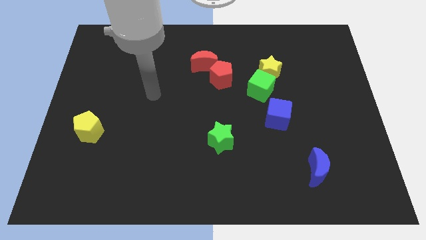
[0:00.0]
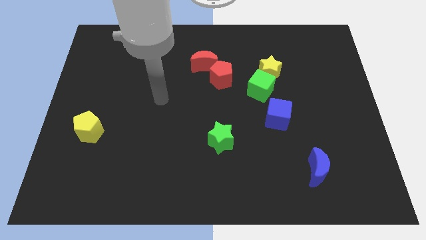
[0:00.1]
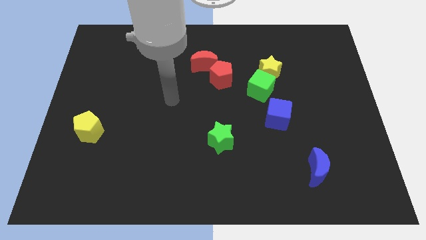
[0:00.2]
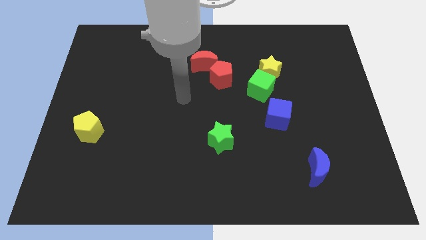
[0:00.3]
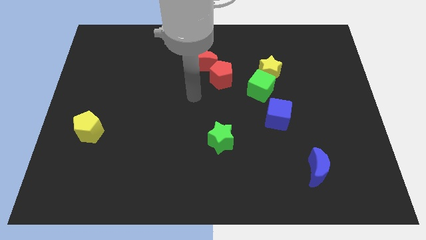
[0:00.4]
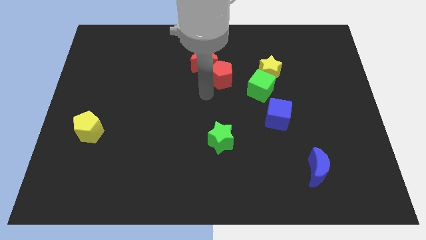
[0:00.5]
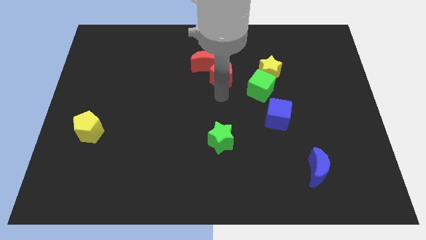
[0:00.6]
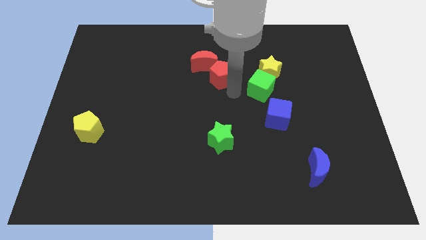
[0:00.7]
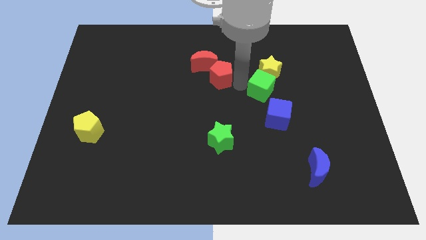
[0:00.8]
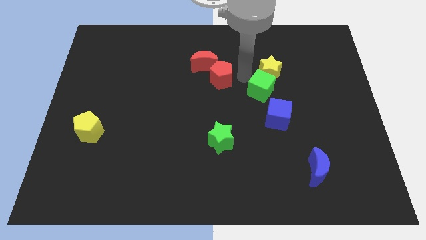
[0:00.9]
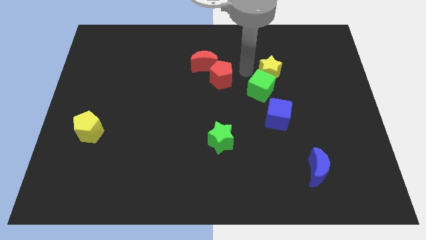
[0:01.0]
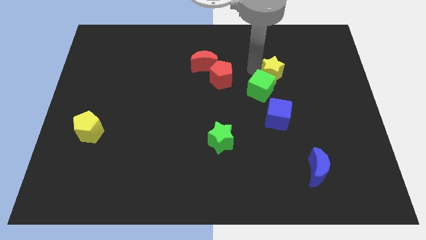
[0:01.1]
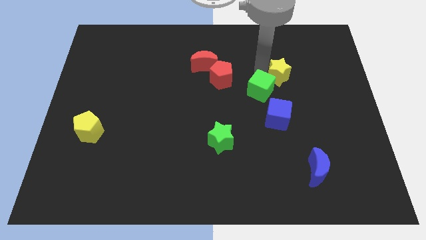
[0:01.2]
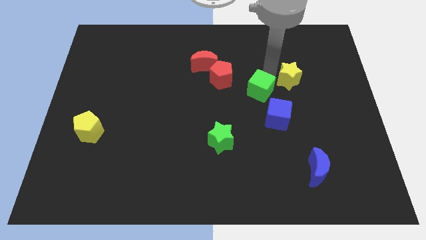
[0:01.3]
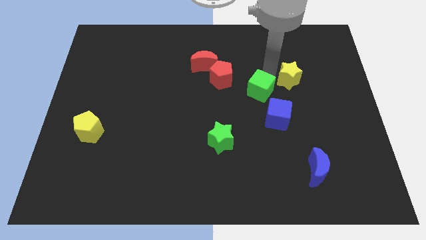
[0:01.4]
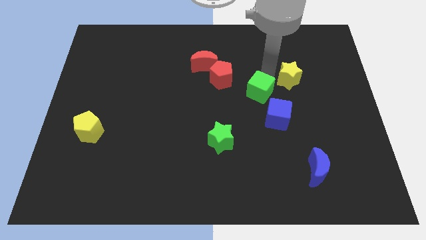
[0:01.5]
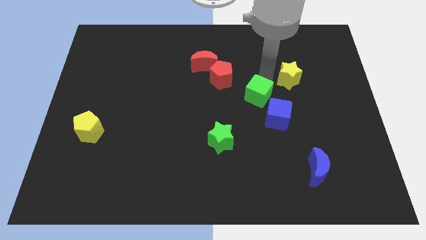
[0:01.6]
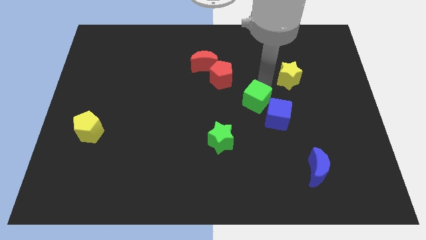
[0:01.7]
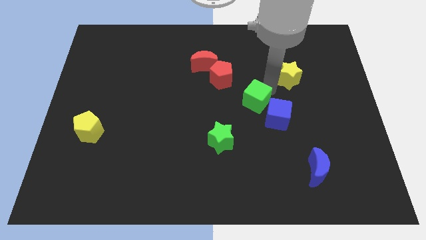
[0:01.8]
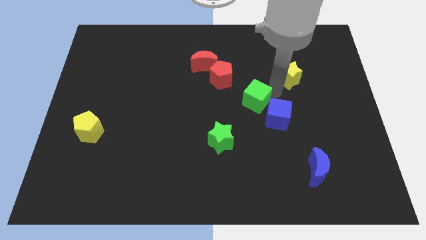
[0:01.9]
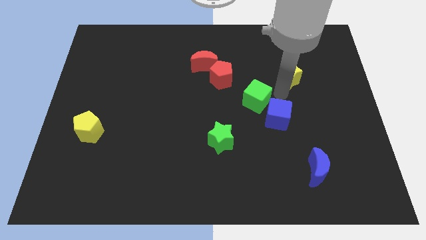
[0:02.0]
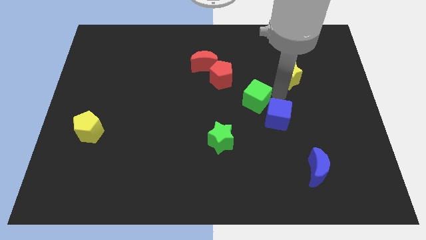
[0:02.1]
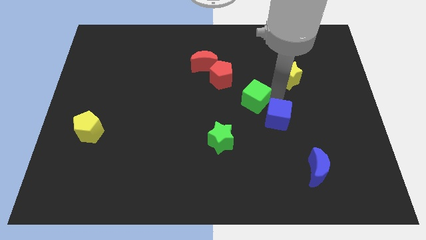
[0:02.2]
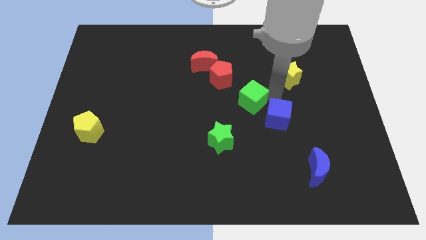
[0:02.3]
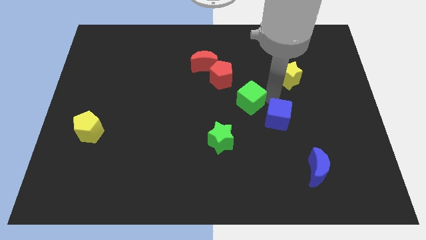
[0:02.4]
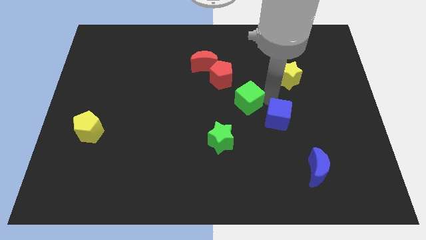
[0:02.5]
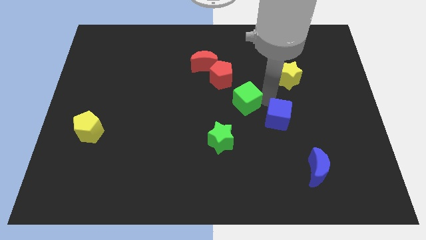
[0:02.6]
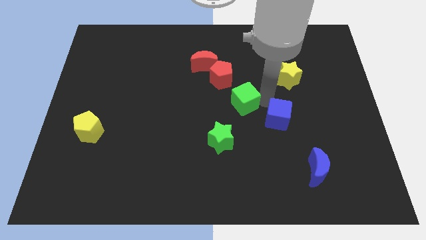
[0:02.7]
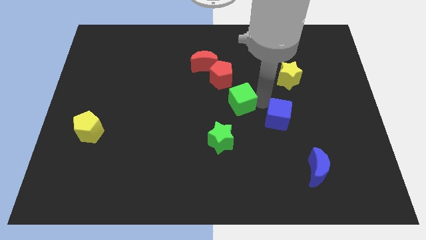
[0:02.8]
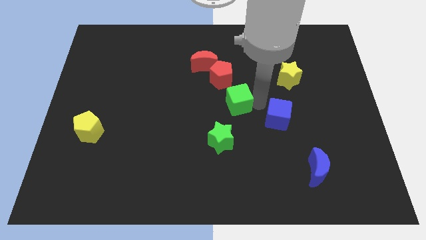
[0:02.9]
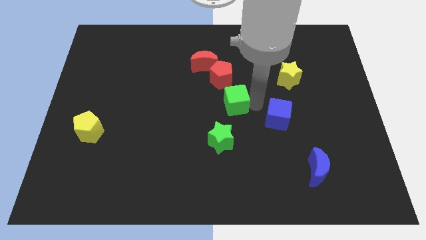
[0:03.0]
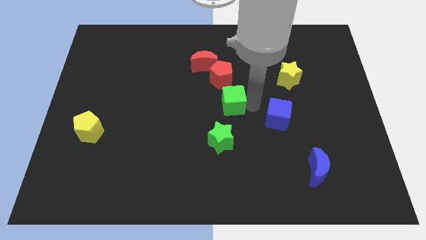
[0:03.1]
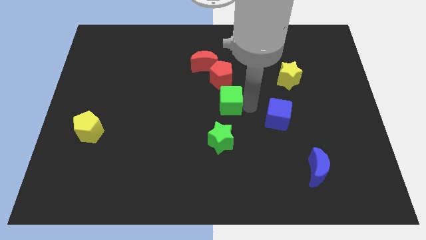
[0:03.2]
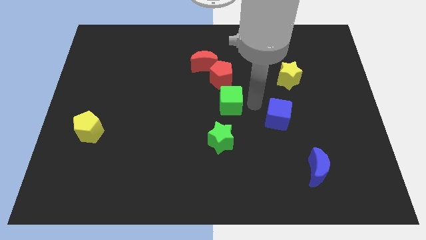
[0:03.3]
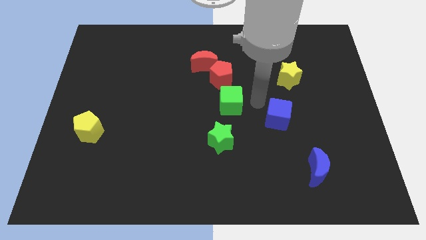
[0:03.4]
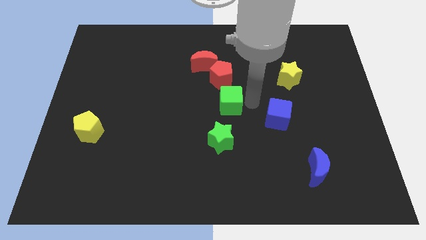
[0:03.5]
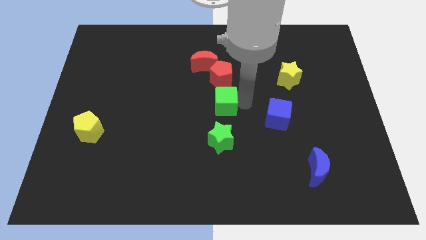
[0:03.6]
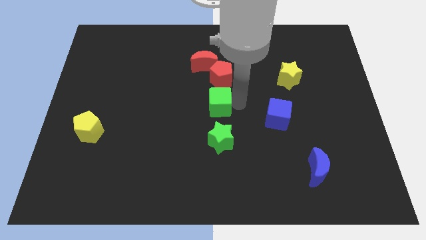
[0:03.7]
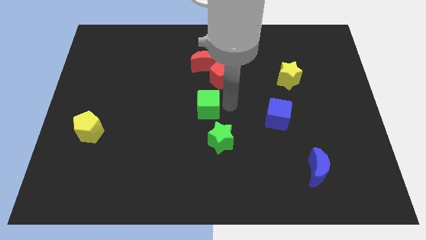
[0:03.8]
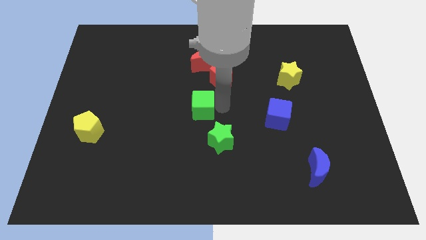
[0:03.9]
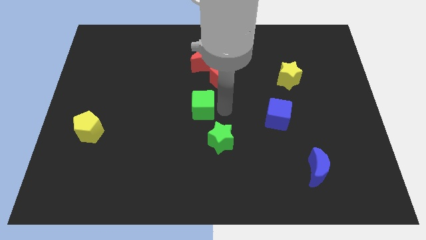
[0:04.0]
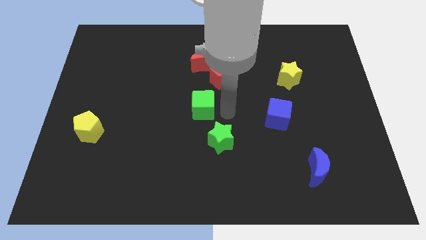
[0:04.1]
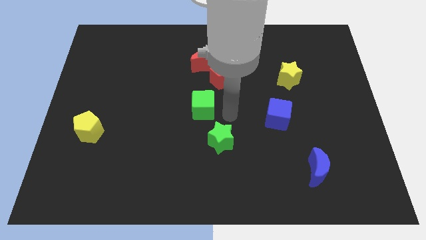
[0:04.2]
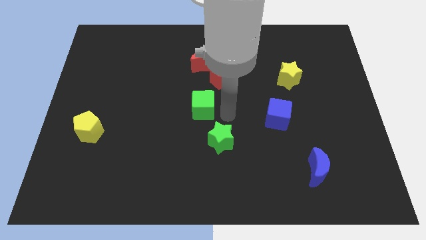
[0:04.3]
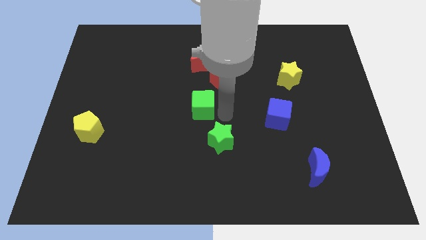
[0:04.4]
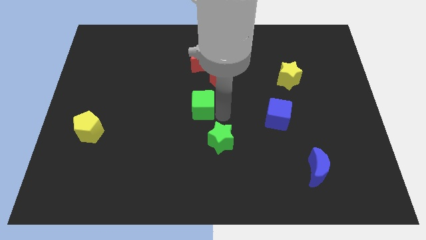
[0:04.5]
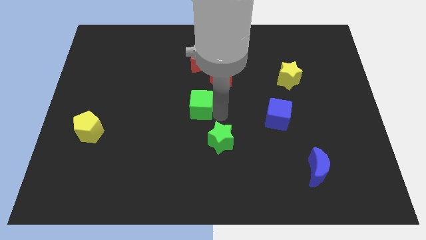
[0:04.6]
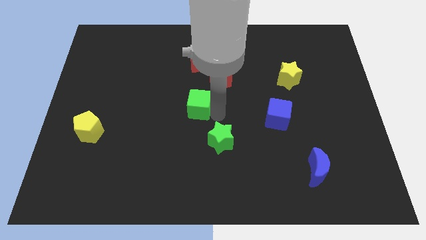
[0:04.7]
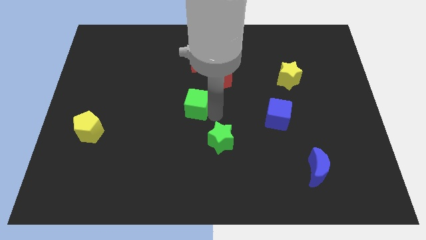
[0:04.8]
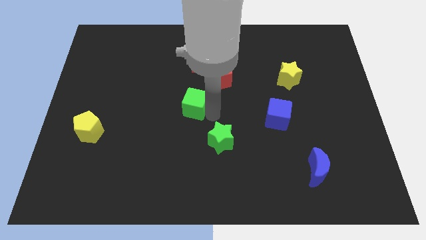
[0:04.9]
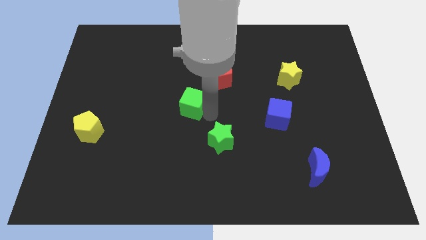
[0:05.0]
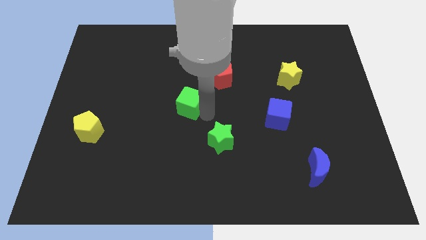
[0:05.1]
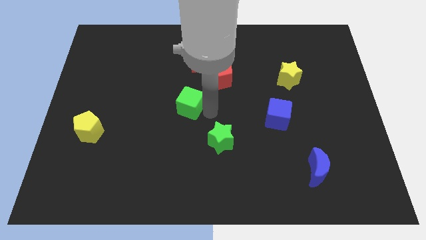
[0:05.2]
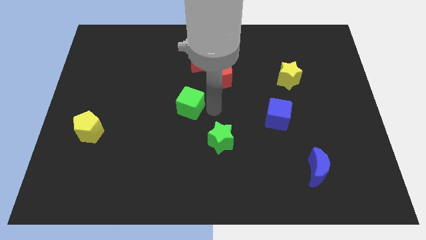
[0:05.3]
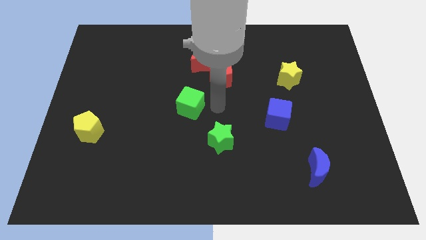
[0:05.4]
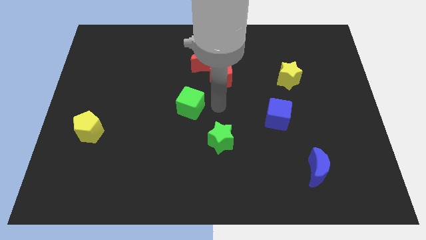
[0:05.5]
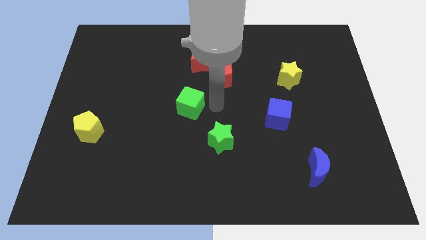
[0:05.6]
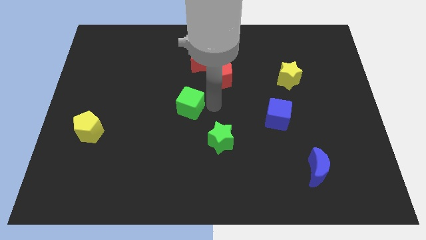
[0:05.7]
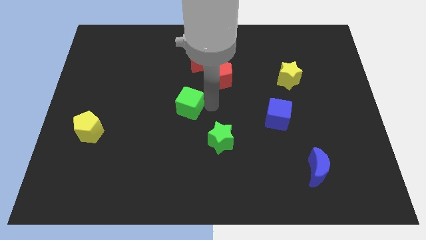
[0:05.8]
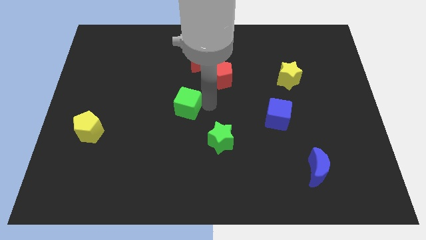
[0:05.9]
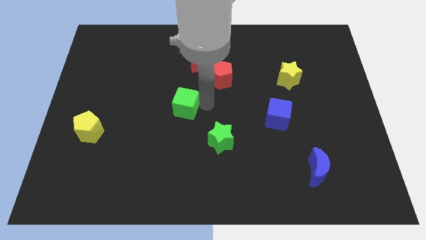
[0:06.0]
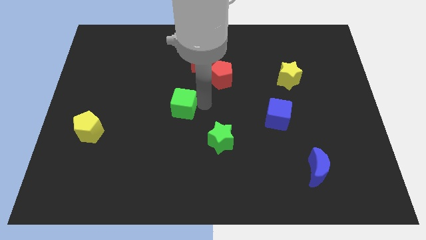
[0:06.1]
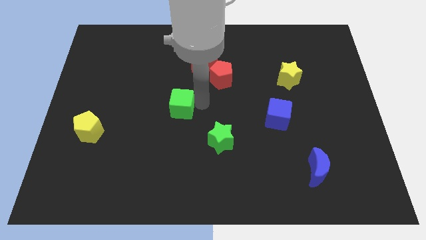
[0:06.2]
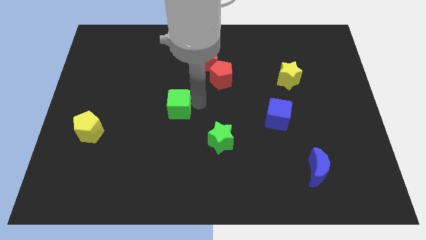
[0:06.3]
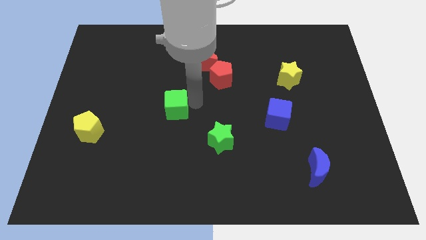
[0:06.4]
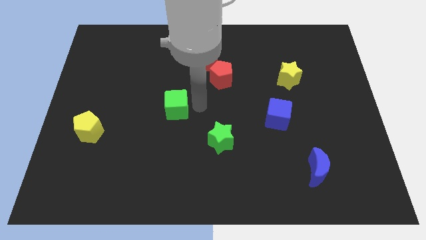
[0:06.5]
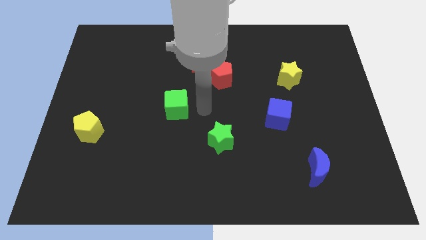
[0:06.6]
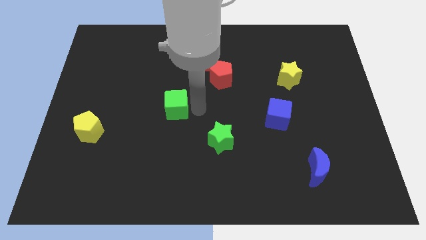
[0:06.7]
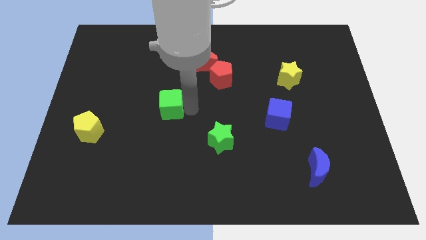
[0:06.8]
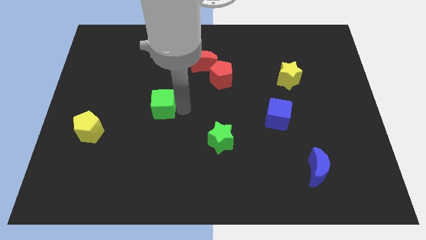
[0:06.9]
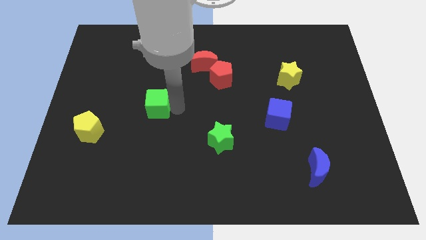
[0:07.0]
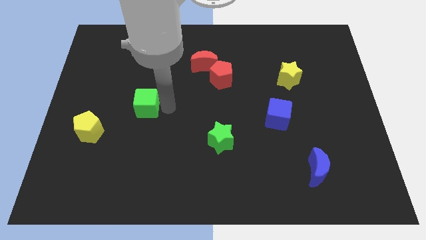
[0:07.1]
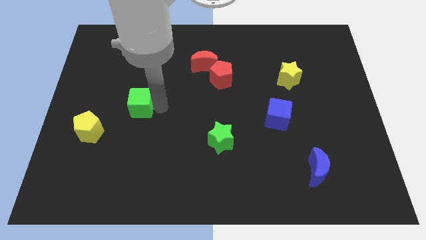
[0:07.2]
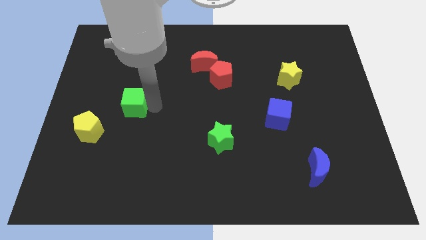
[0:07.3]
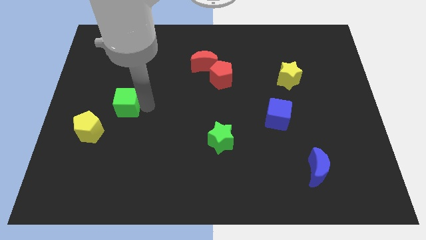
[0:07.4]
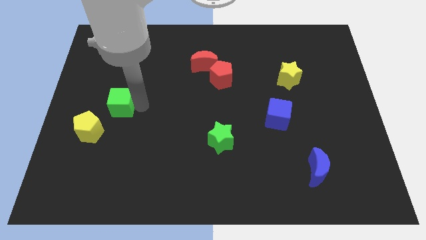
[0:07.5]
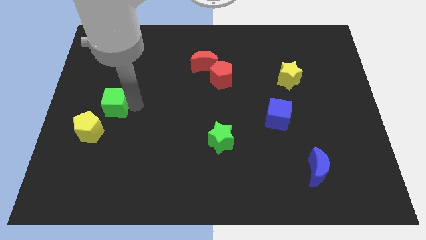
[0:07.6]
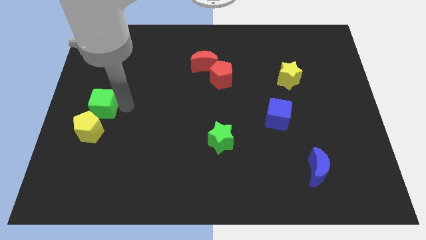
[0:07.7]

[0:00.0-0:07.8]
move the green cube to the left side

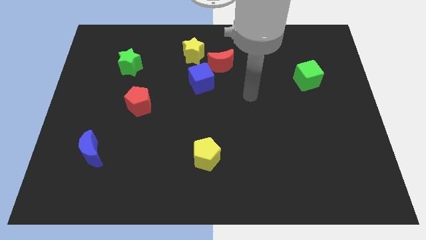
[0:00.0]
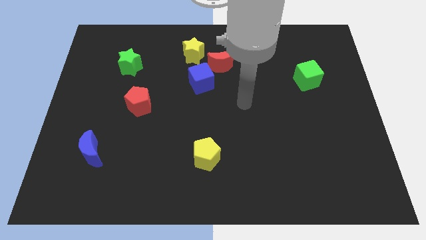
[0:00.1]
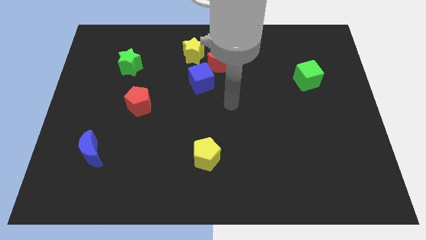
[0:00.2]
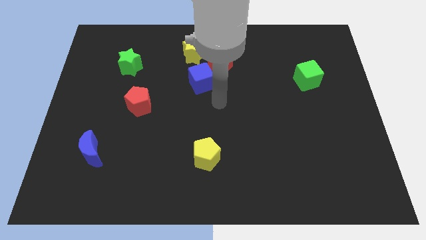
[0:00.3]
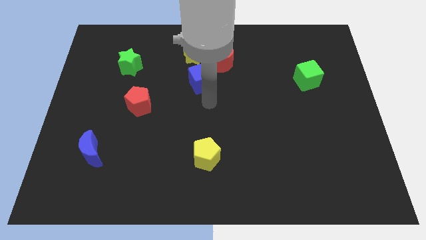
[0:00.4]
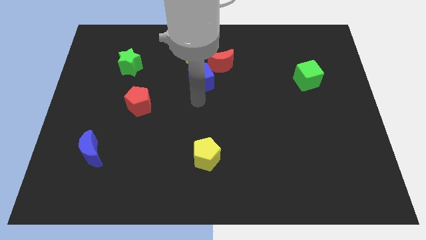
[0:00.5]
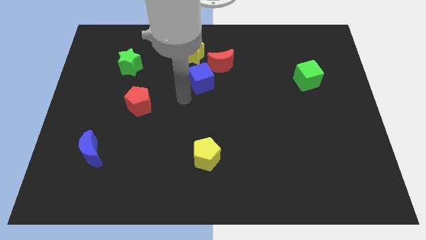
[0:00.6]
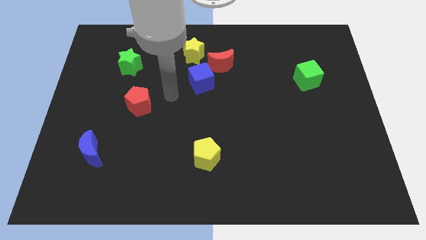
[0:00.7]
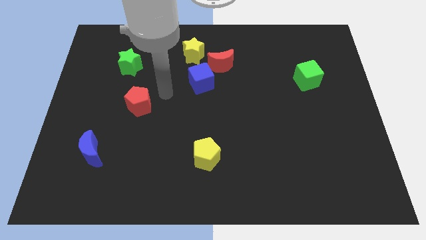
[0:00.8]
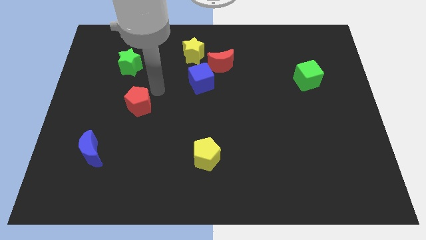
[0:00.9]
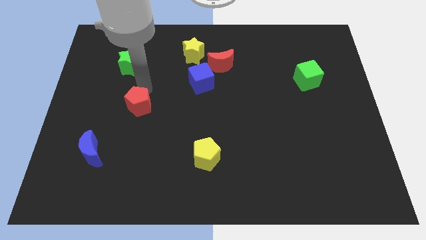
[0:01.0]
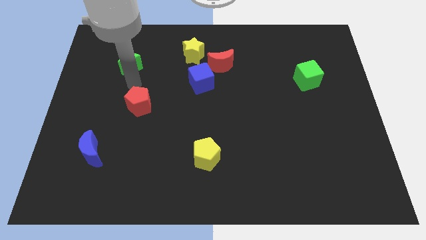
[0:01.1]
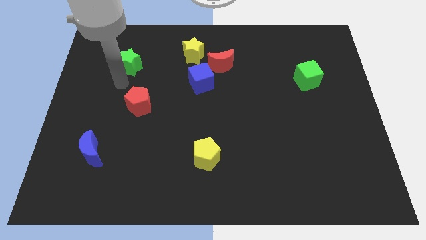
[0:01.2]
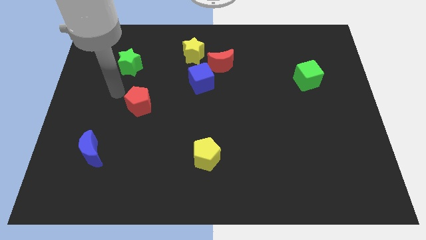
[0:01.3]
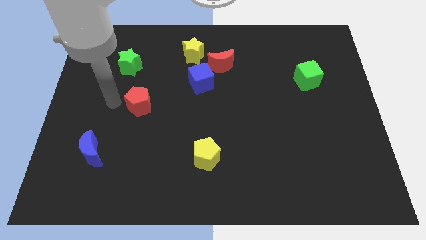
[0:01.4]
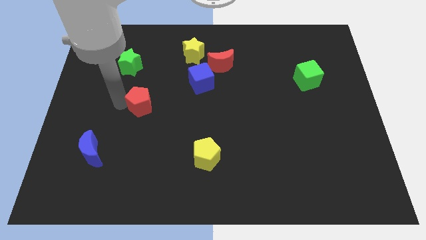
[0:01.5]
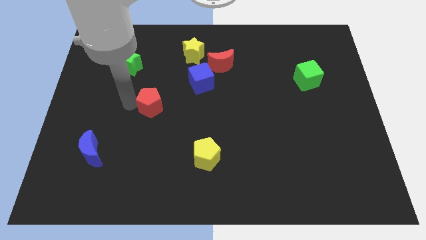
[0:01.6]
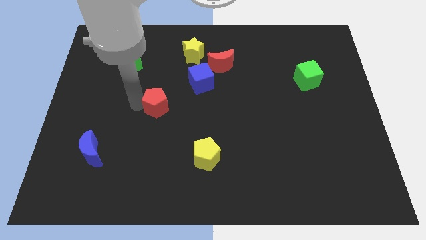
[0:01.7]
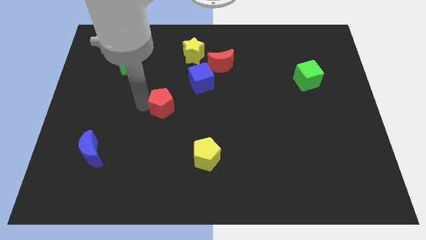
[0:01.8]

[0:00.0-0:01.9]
push the red pentagon to the center
